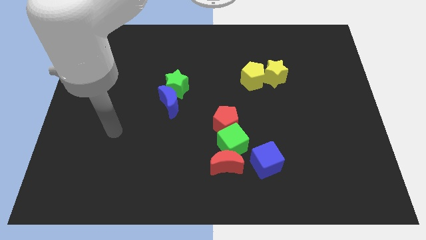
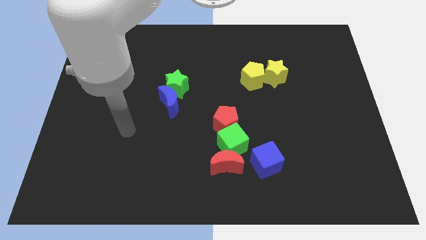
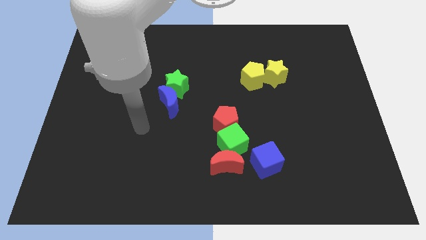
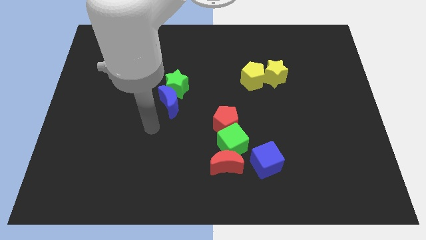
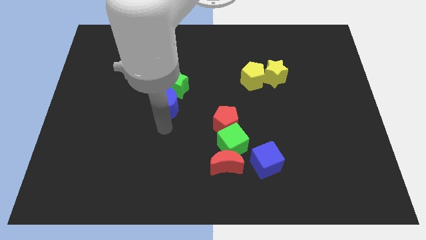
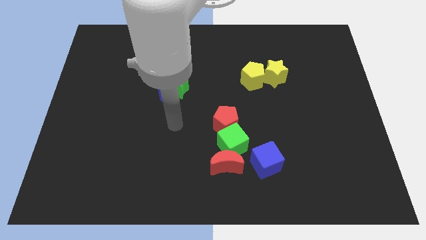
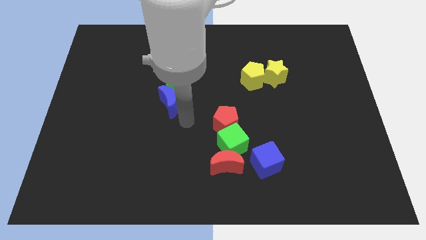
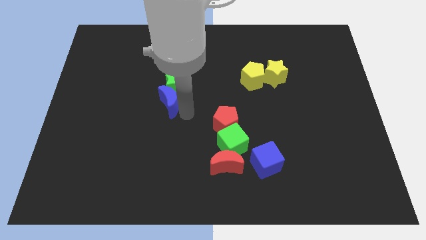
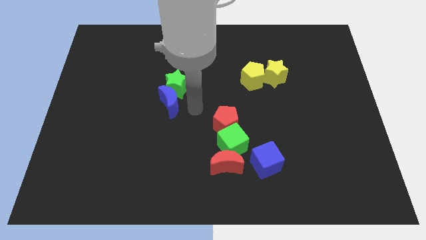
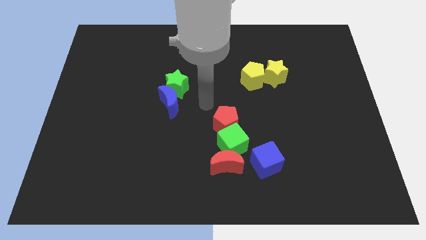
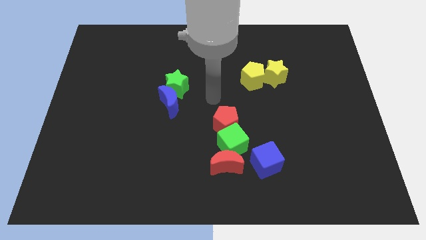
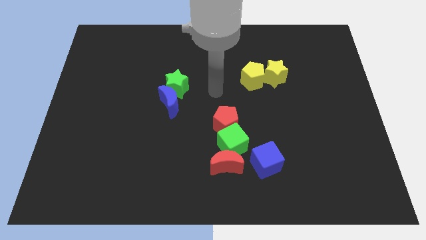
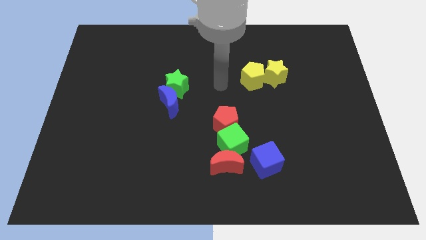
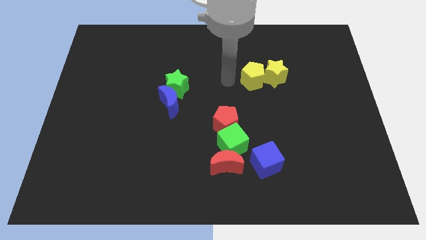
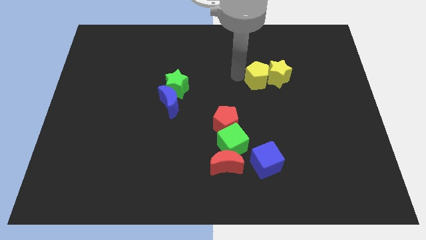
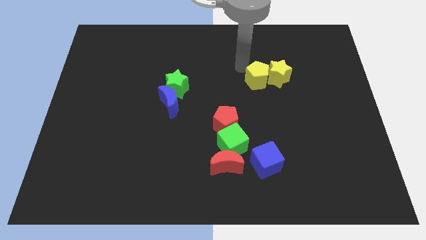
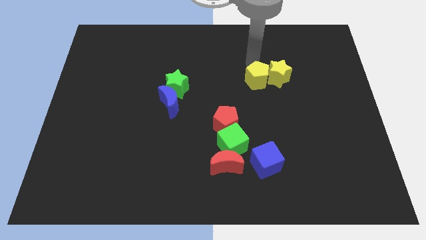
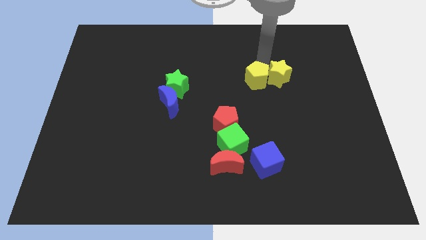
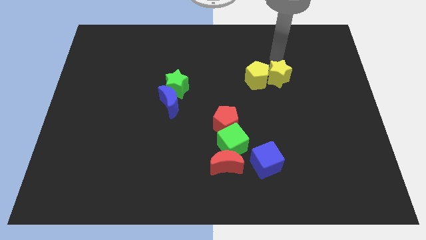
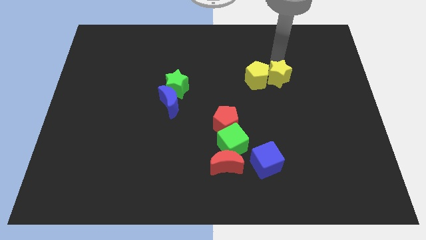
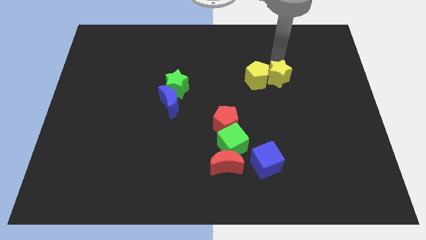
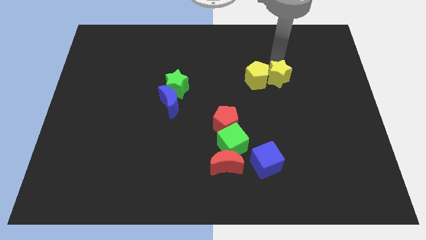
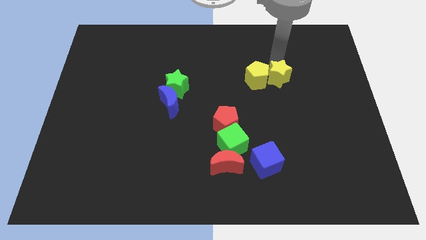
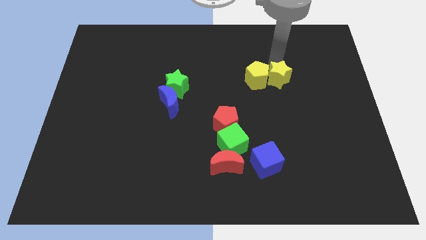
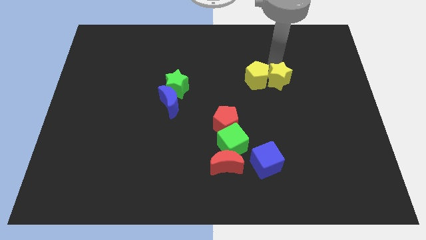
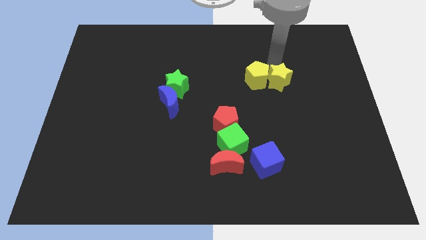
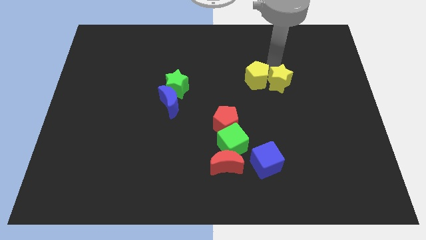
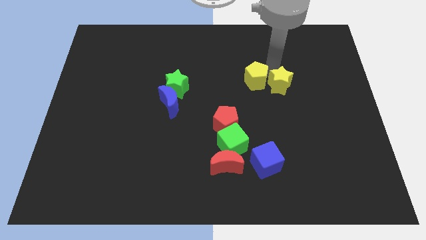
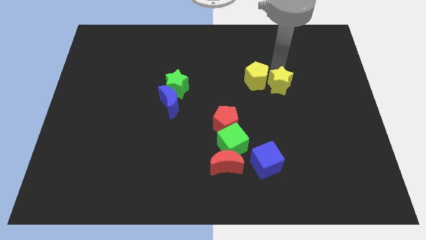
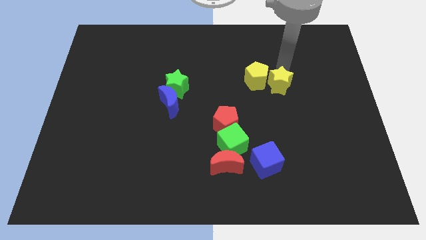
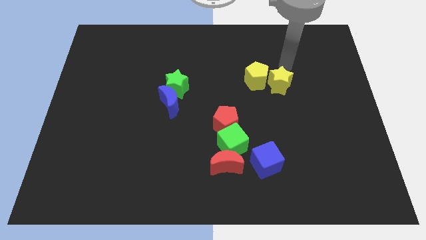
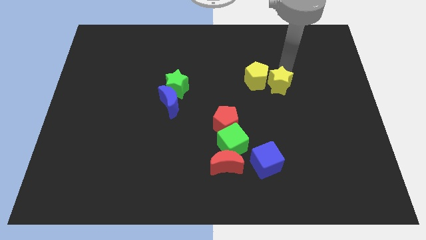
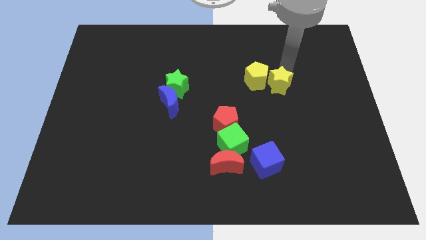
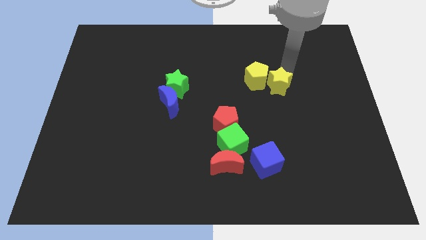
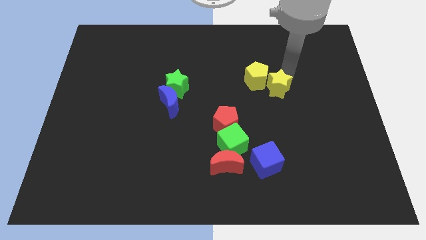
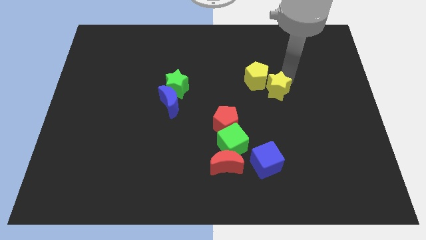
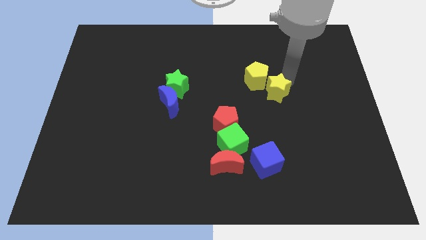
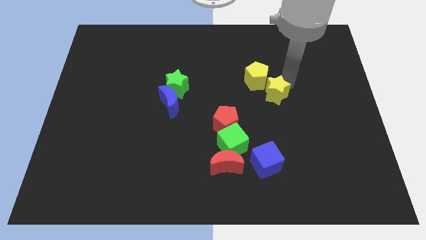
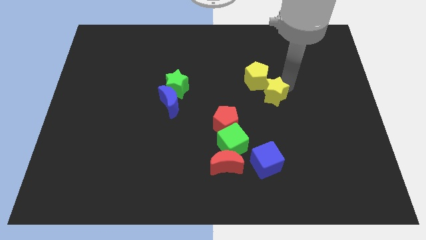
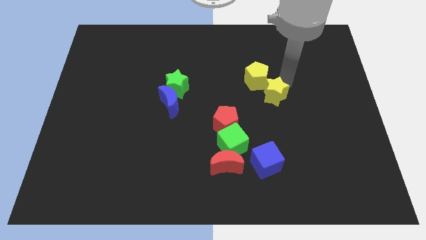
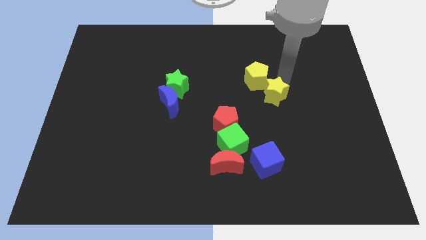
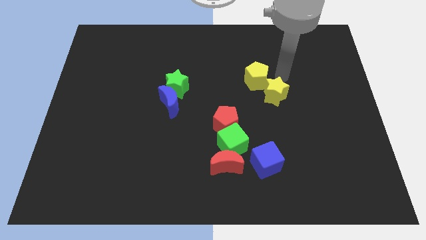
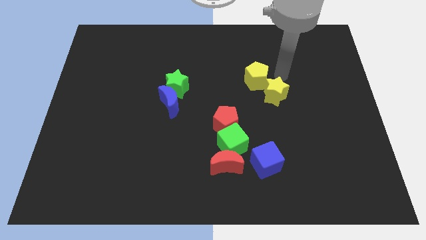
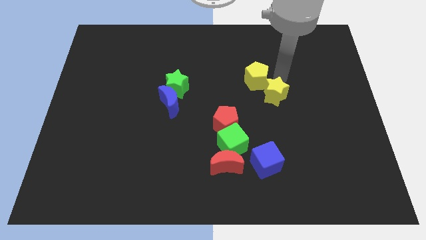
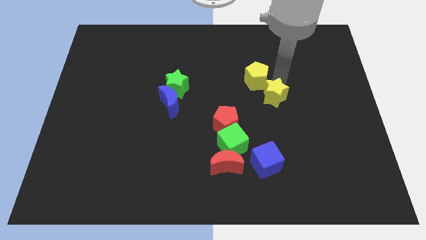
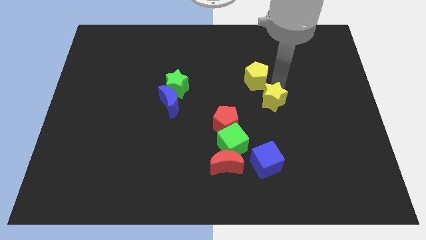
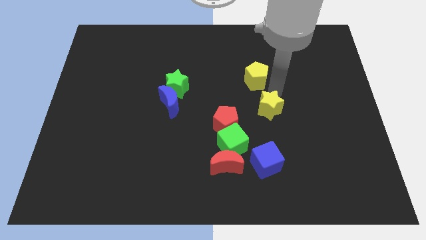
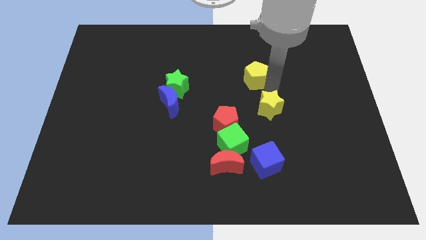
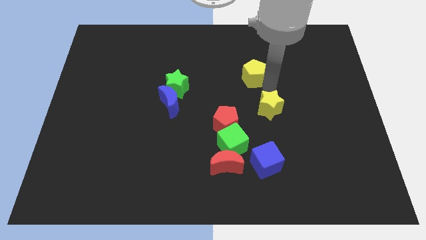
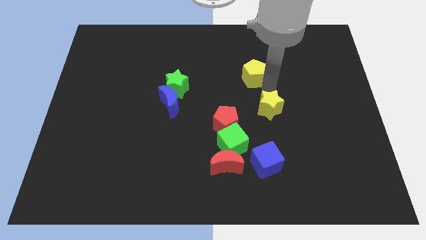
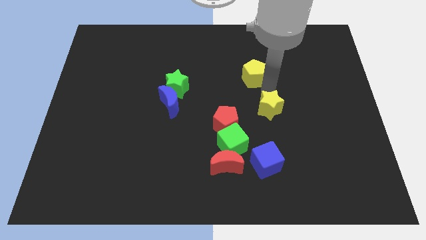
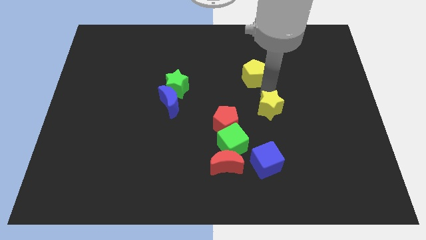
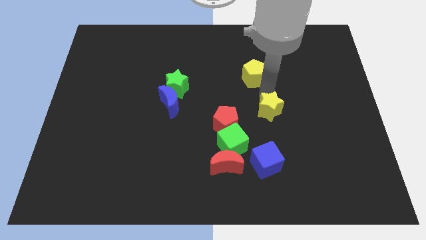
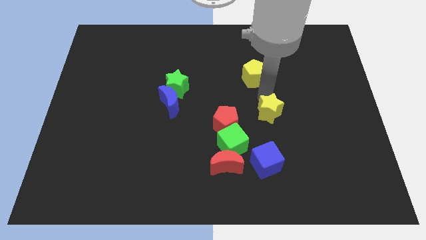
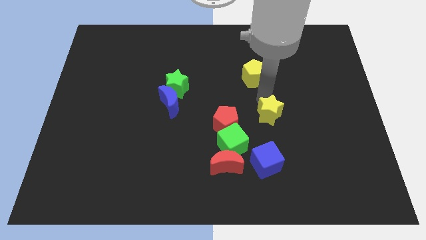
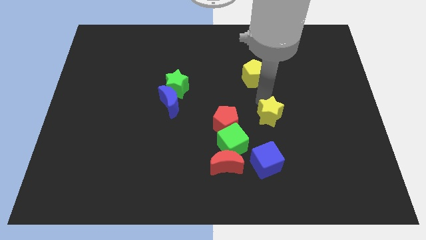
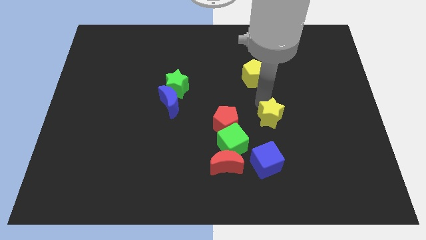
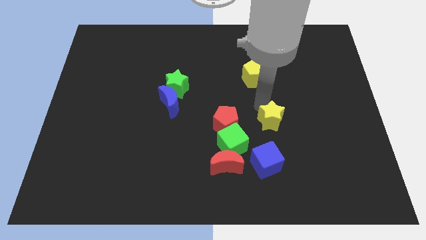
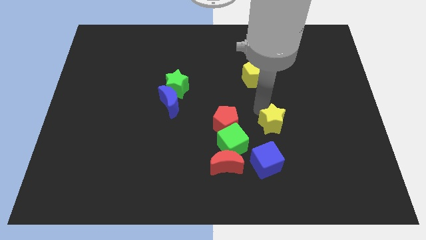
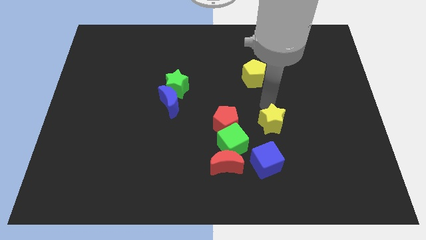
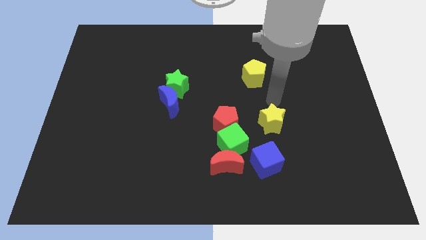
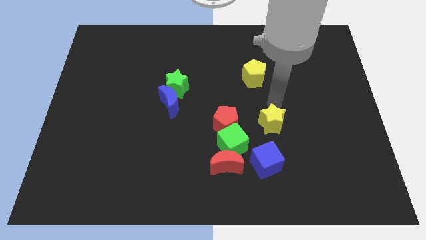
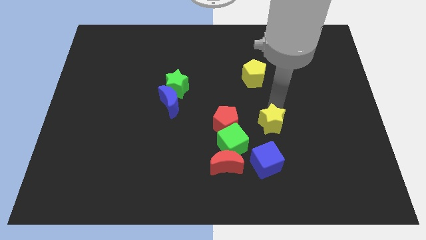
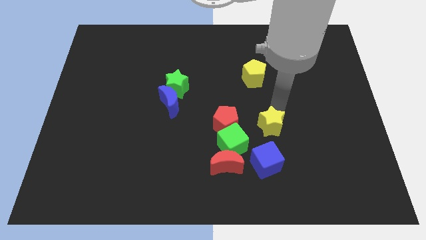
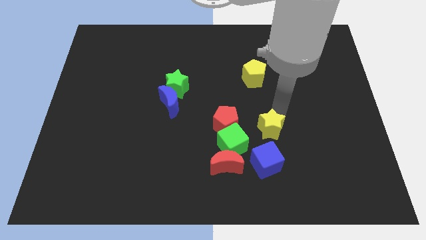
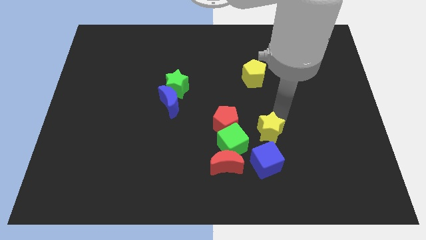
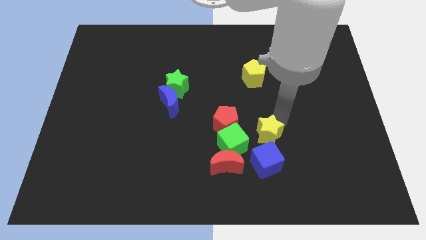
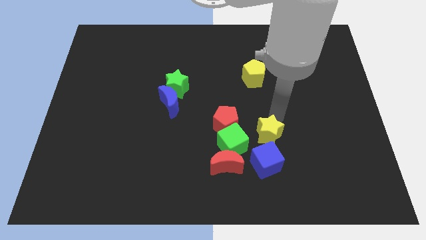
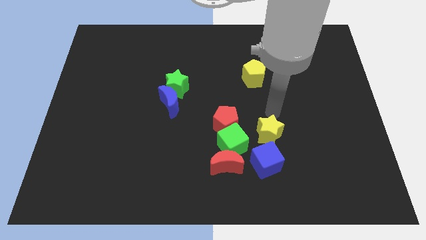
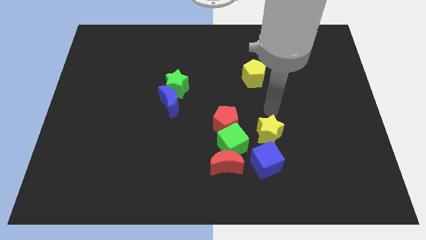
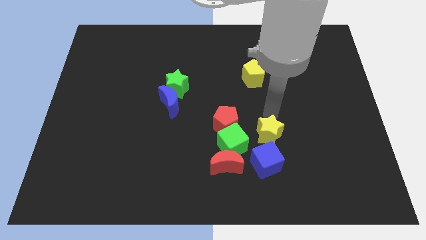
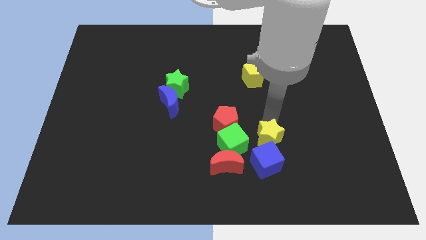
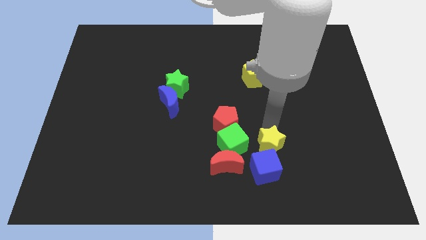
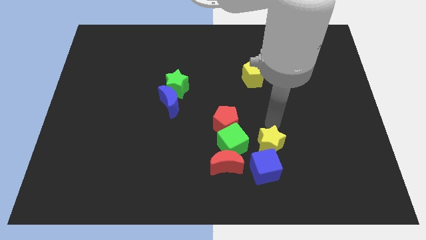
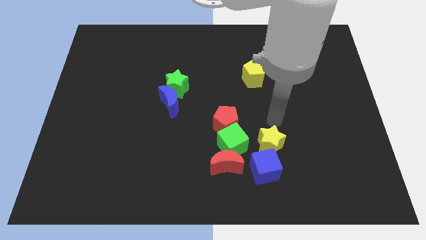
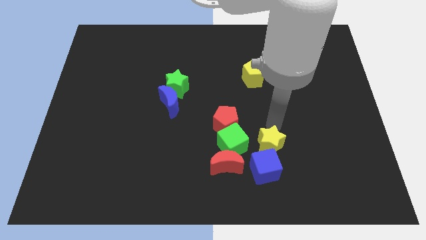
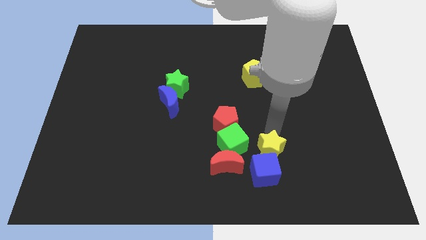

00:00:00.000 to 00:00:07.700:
move the yellow star towards the blue cube
